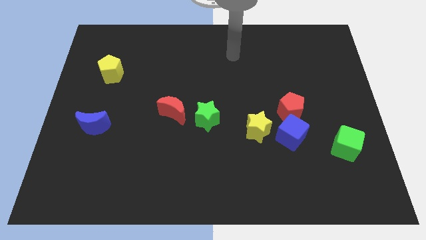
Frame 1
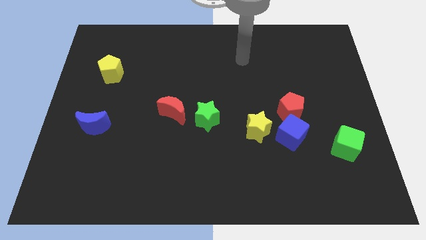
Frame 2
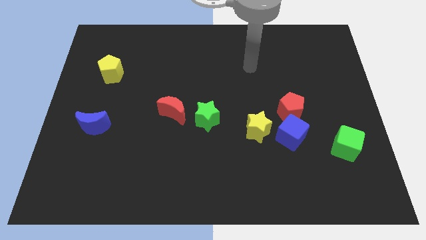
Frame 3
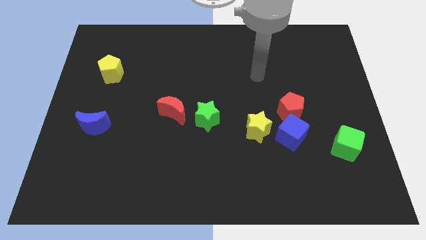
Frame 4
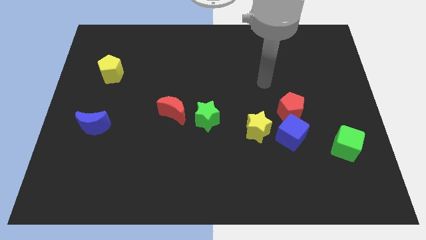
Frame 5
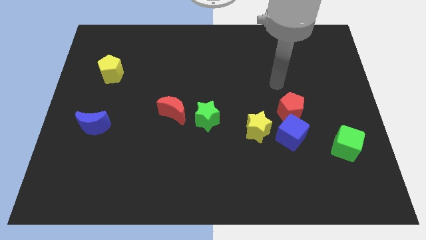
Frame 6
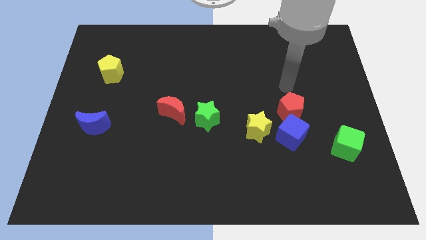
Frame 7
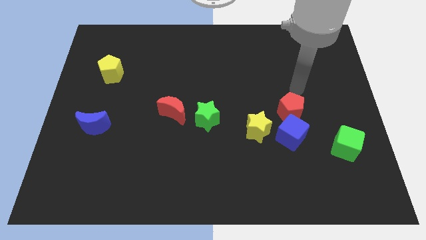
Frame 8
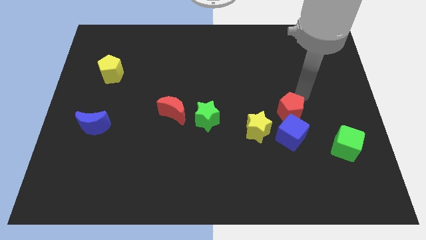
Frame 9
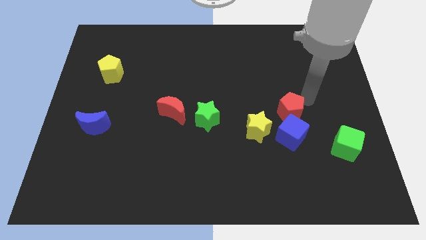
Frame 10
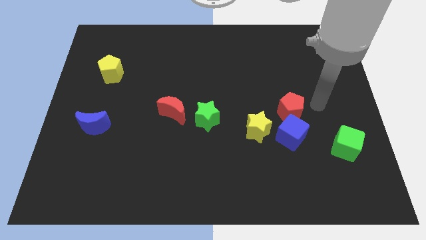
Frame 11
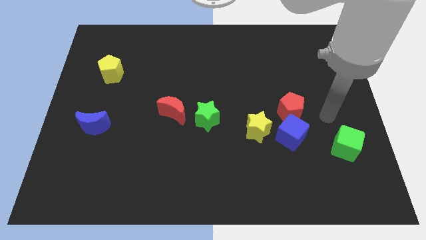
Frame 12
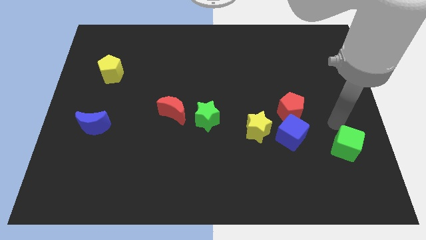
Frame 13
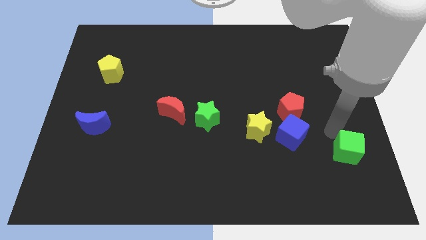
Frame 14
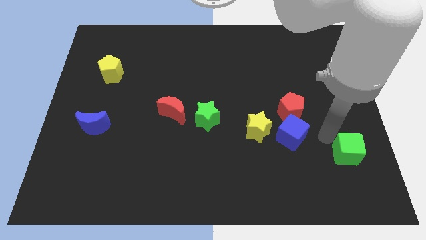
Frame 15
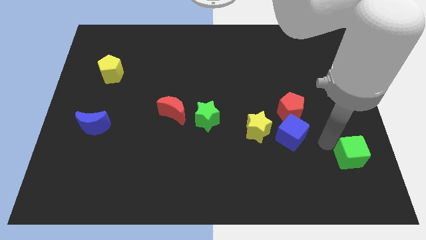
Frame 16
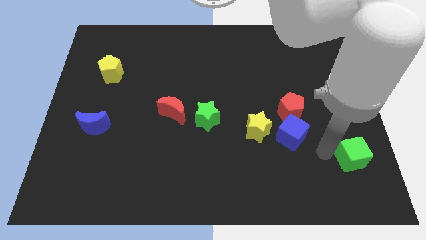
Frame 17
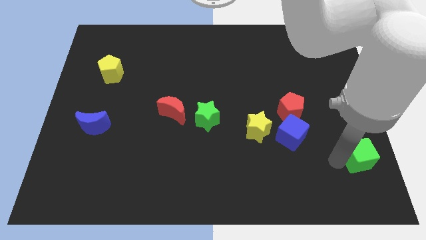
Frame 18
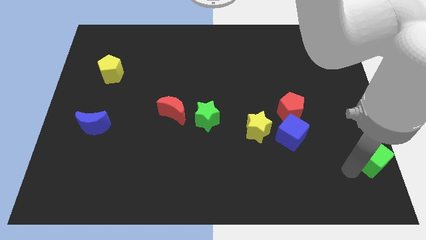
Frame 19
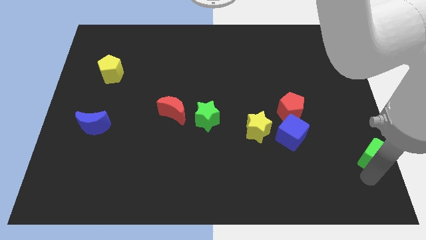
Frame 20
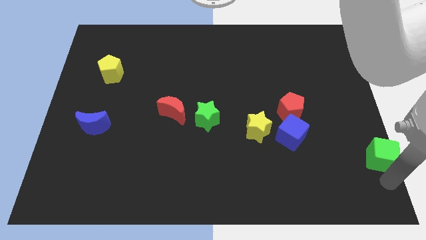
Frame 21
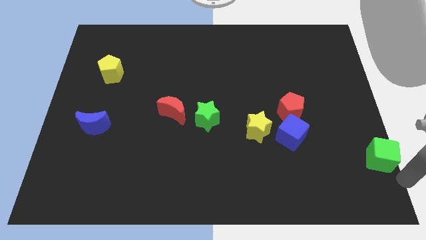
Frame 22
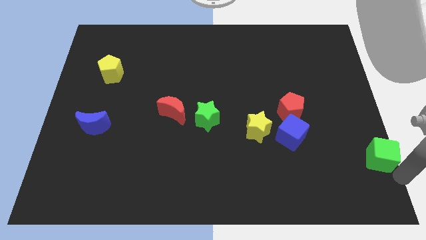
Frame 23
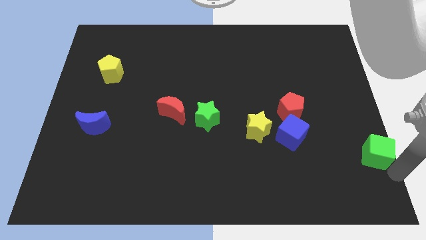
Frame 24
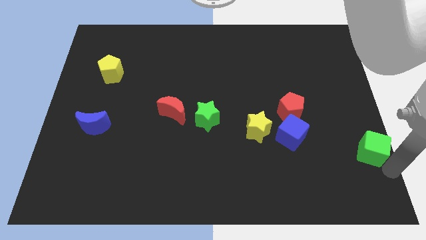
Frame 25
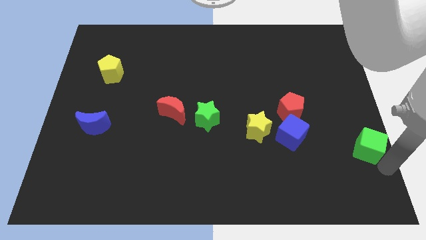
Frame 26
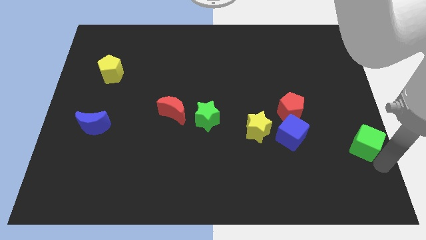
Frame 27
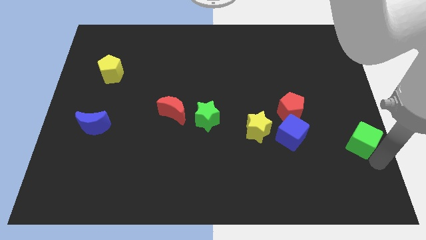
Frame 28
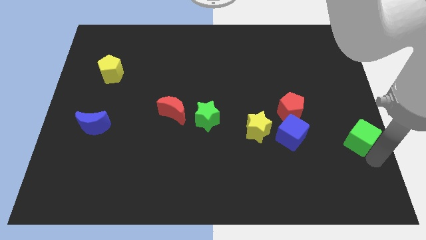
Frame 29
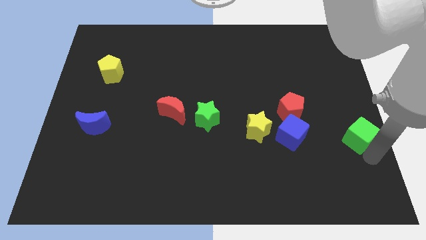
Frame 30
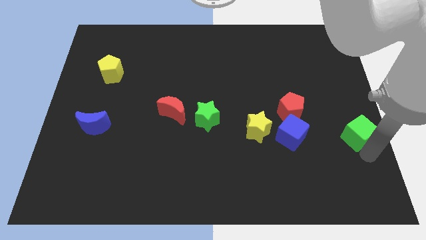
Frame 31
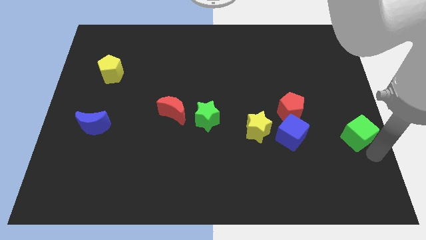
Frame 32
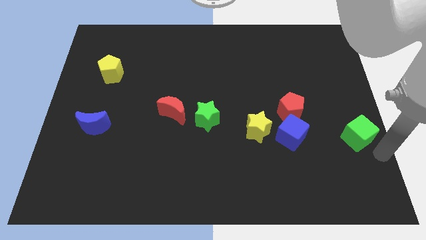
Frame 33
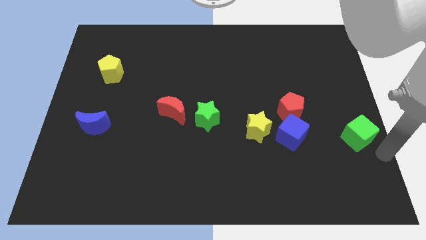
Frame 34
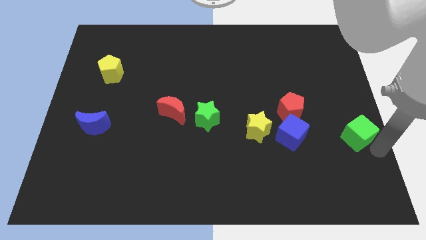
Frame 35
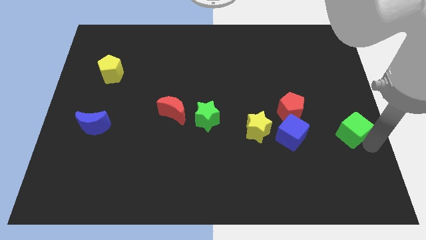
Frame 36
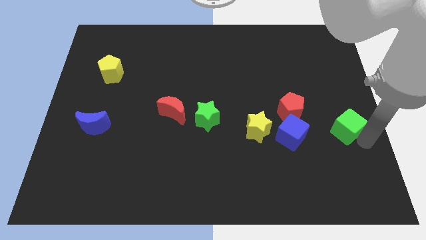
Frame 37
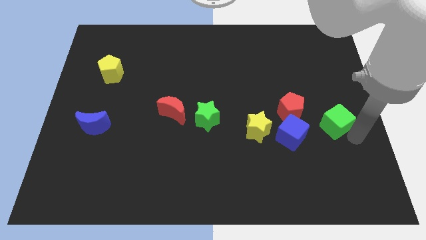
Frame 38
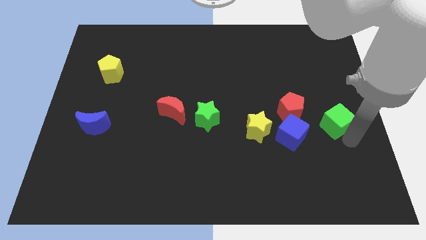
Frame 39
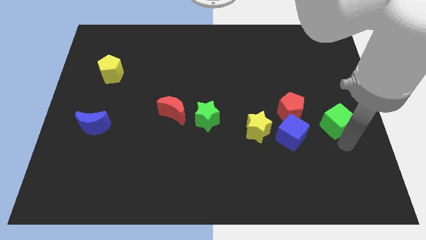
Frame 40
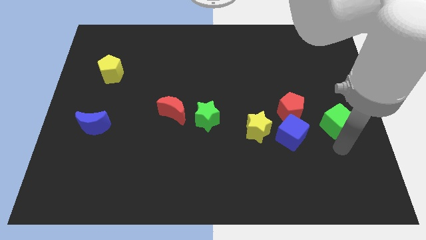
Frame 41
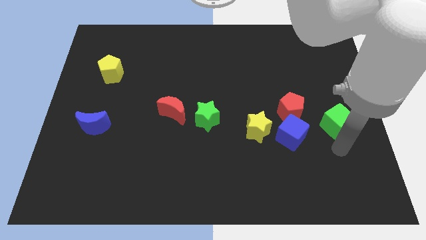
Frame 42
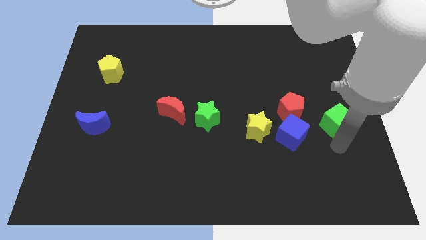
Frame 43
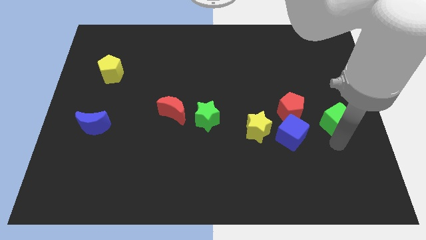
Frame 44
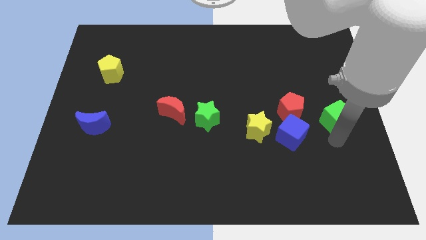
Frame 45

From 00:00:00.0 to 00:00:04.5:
slide the green cube upwards a little

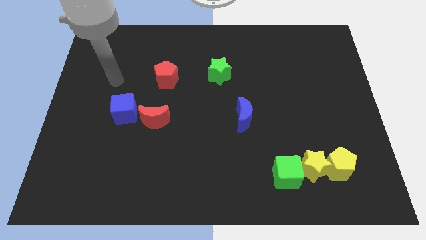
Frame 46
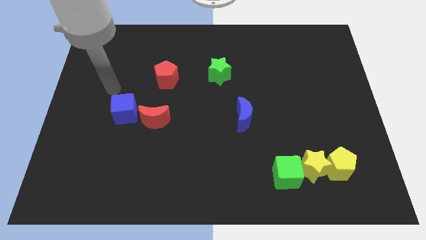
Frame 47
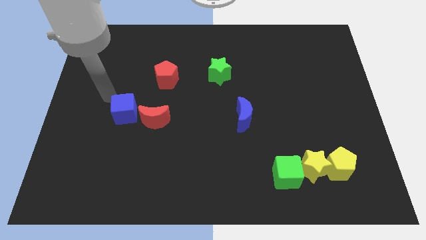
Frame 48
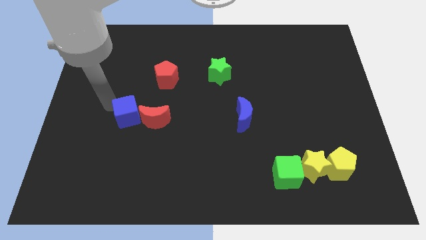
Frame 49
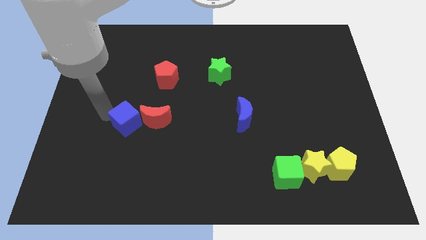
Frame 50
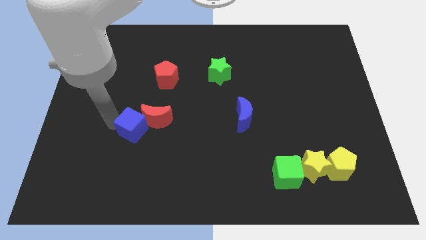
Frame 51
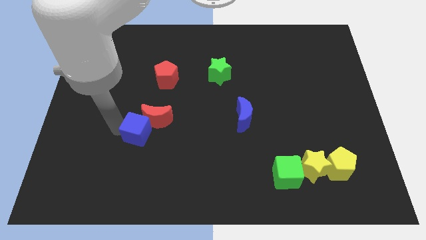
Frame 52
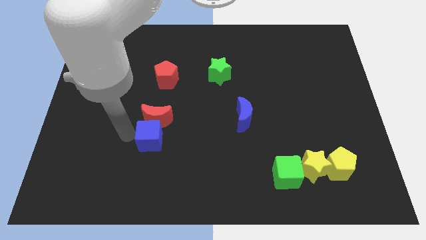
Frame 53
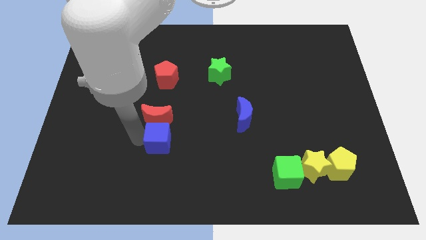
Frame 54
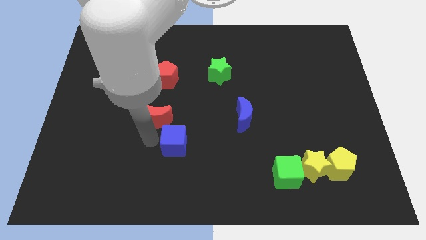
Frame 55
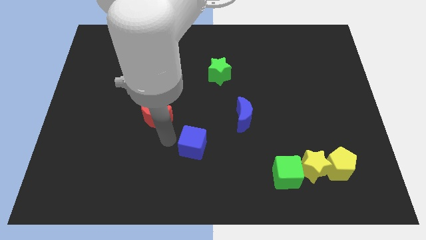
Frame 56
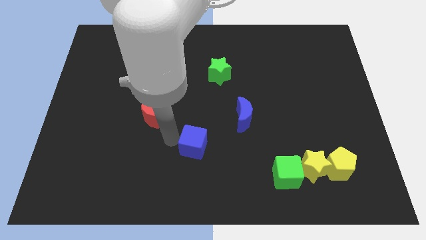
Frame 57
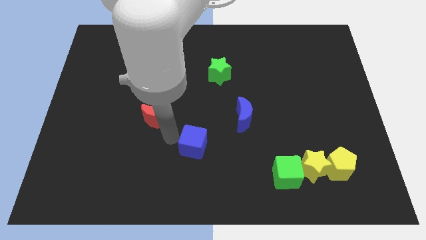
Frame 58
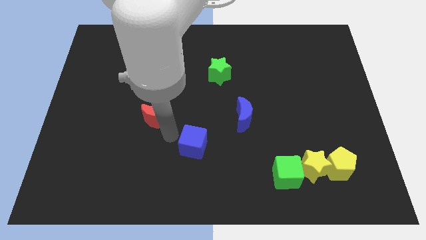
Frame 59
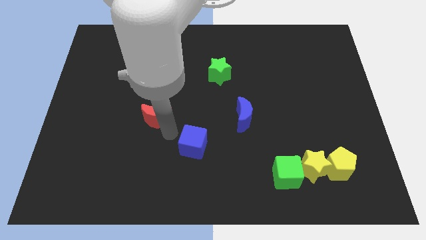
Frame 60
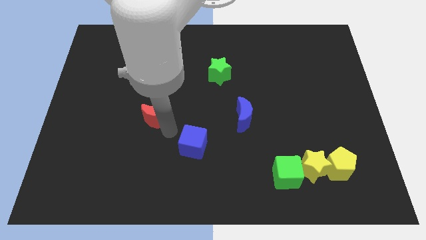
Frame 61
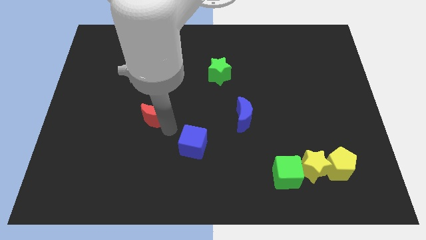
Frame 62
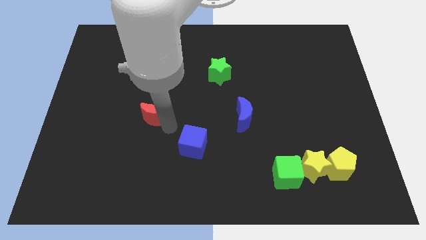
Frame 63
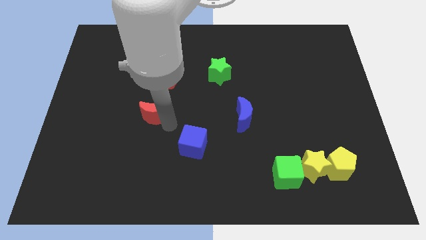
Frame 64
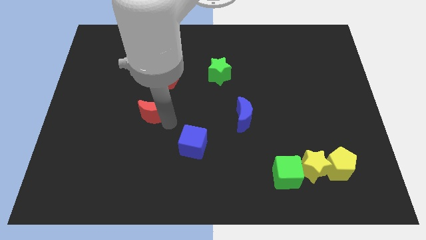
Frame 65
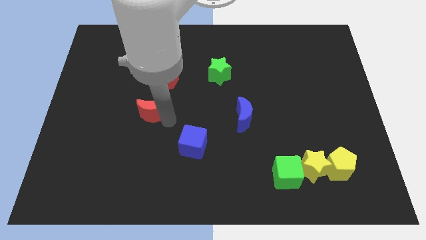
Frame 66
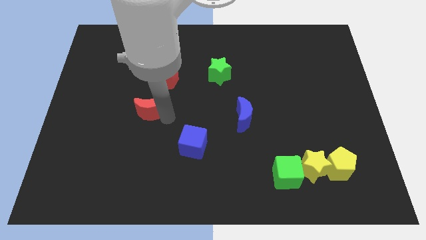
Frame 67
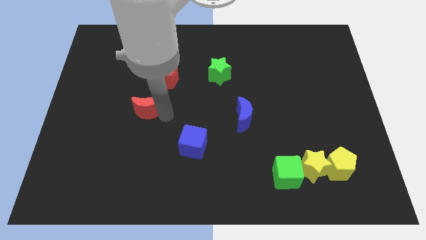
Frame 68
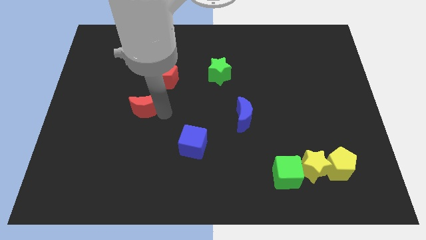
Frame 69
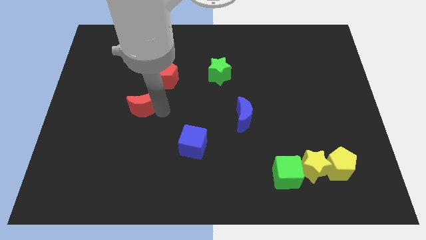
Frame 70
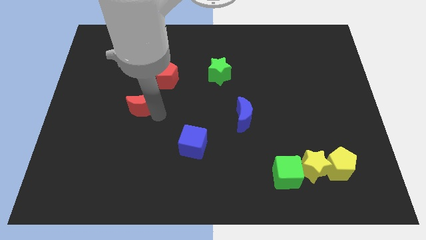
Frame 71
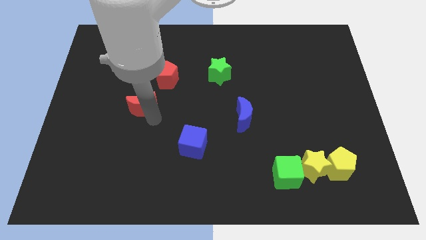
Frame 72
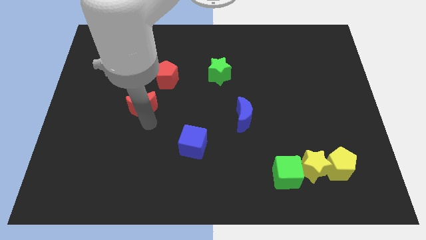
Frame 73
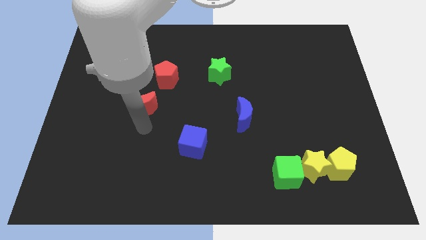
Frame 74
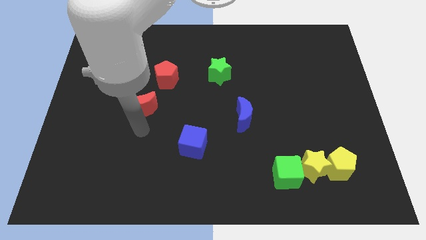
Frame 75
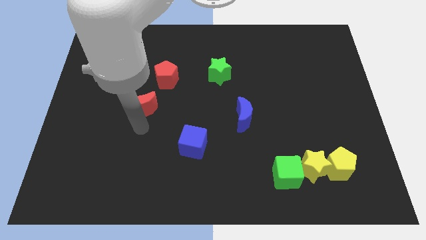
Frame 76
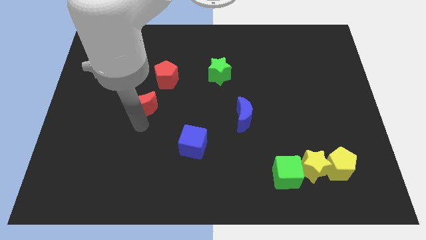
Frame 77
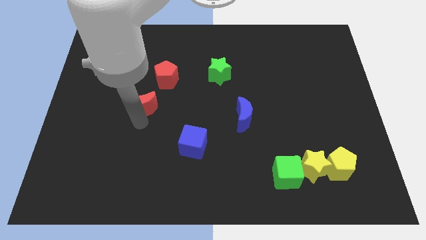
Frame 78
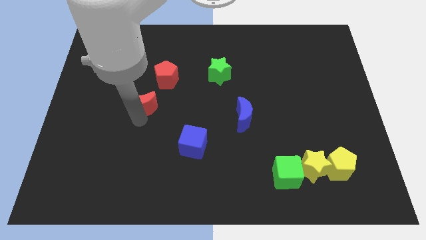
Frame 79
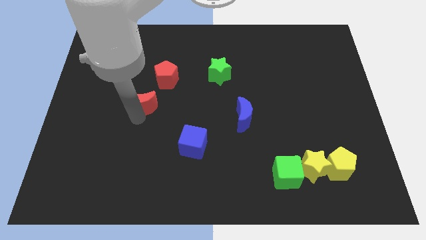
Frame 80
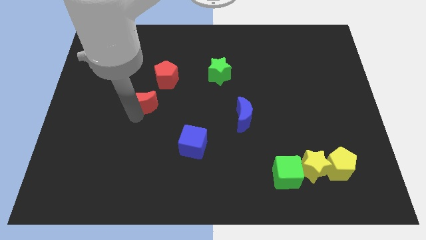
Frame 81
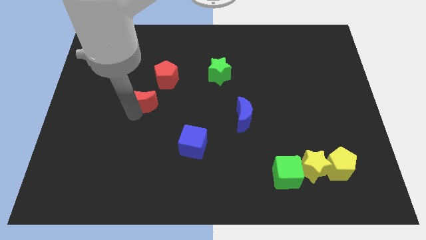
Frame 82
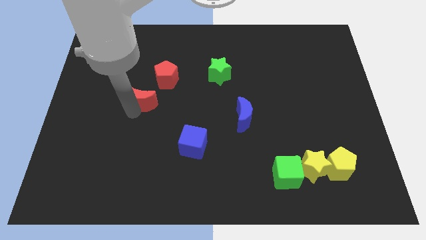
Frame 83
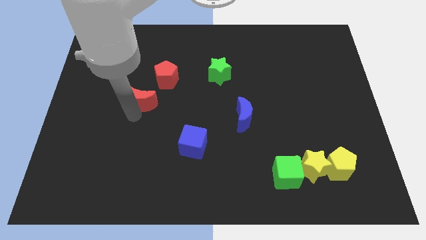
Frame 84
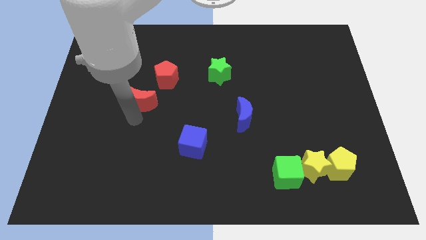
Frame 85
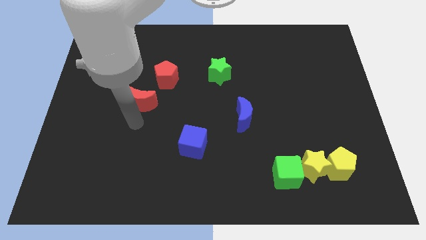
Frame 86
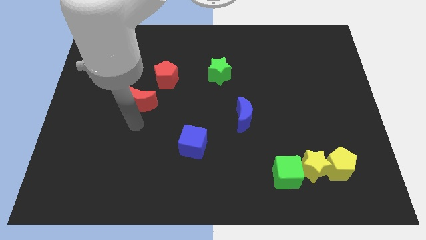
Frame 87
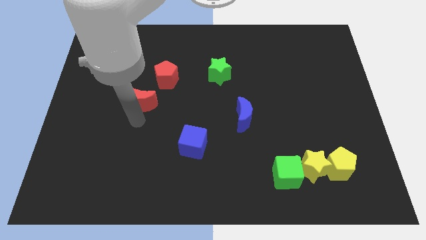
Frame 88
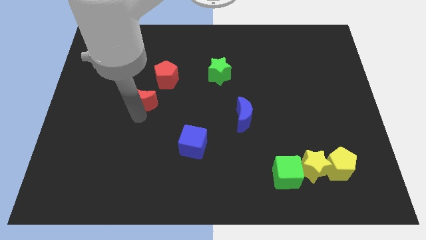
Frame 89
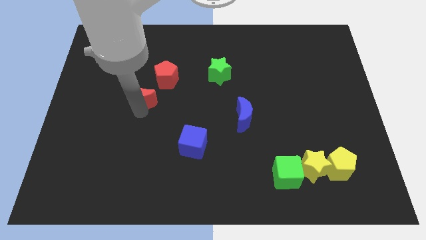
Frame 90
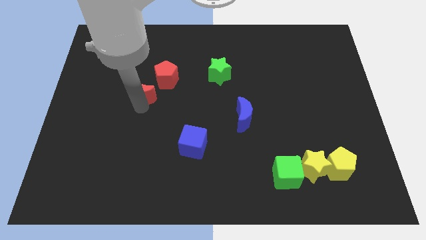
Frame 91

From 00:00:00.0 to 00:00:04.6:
slightly move the red moon upwards
